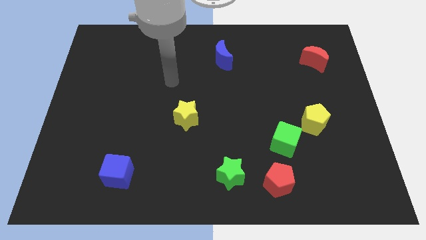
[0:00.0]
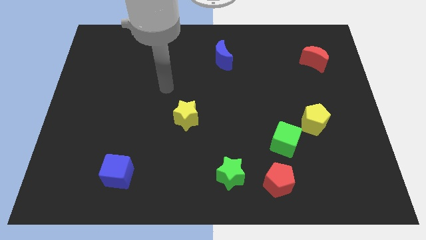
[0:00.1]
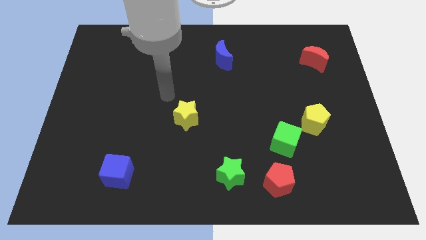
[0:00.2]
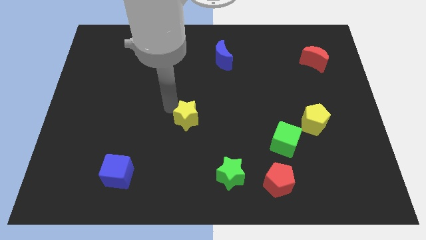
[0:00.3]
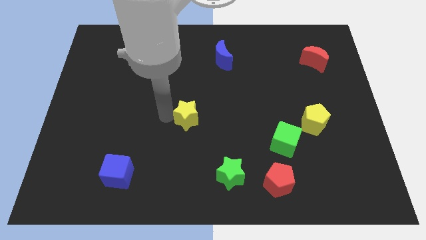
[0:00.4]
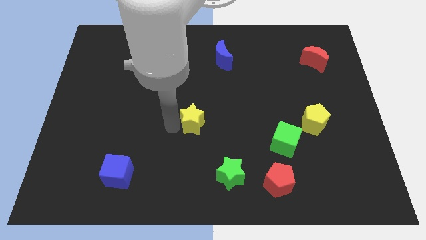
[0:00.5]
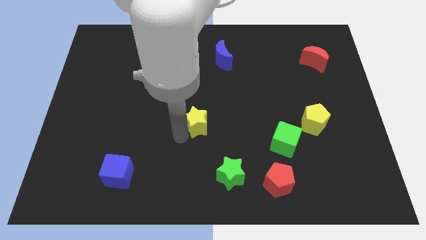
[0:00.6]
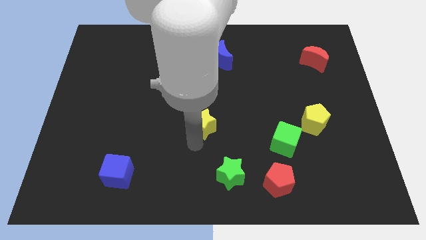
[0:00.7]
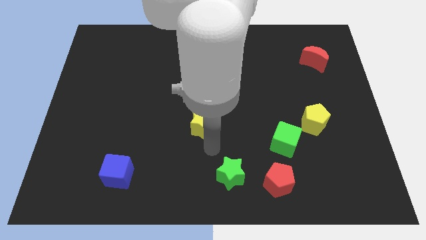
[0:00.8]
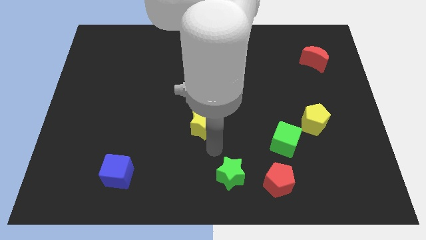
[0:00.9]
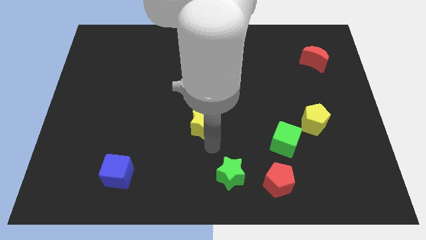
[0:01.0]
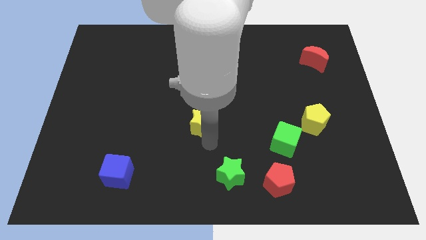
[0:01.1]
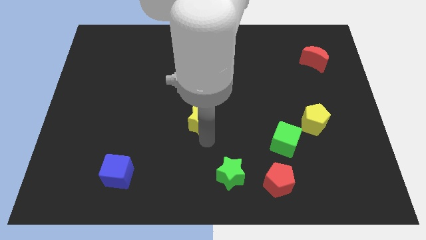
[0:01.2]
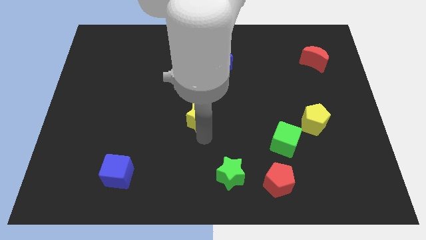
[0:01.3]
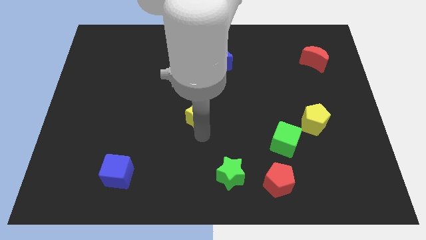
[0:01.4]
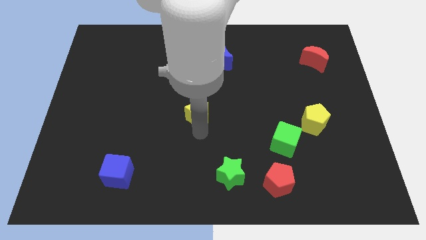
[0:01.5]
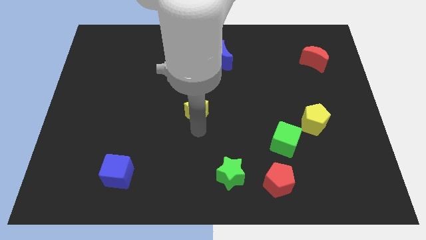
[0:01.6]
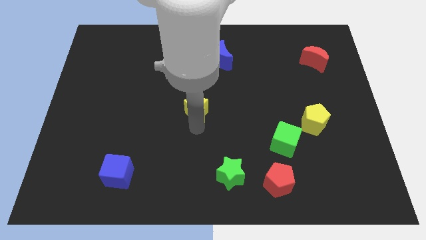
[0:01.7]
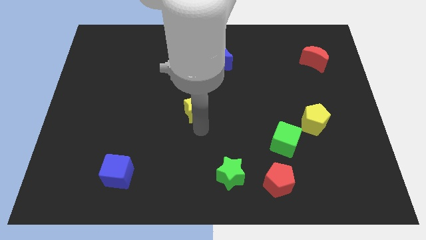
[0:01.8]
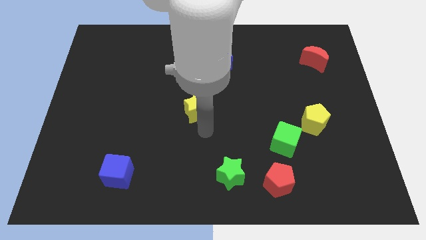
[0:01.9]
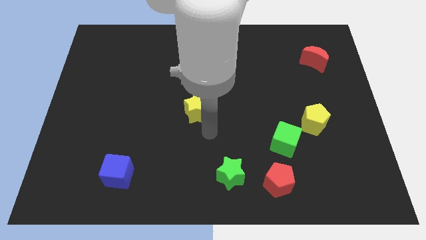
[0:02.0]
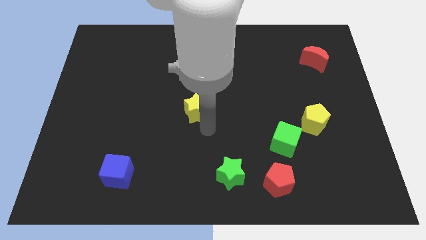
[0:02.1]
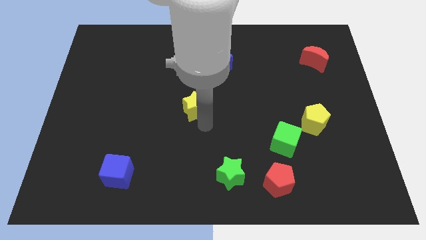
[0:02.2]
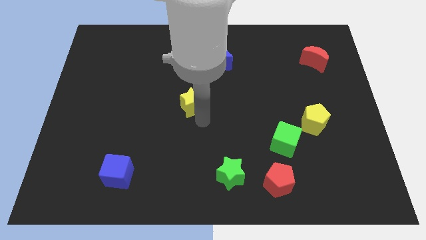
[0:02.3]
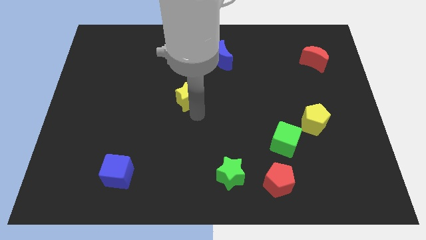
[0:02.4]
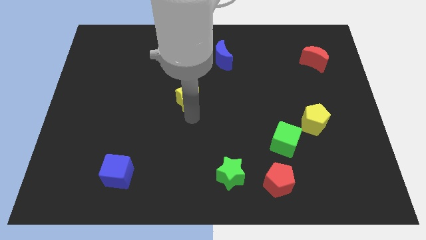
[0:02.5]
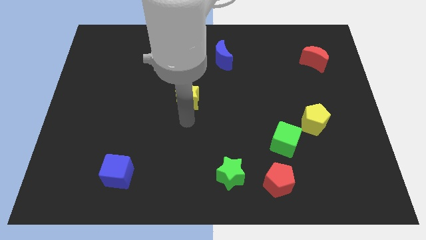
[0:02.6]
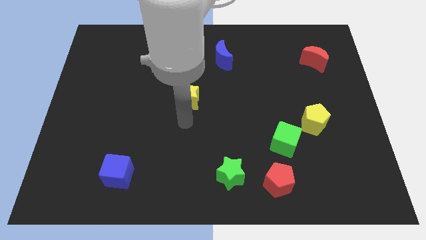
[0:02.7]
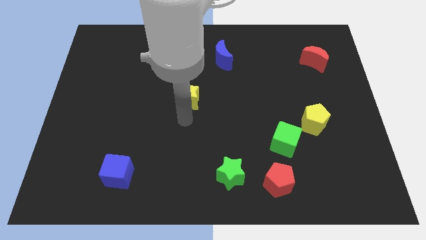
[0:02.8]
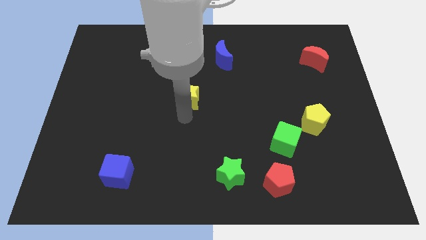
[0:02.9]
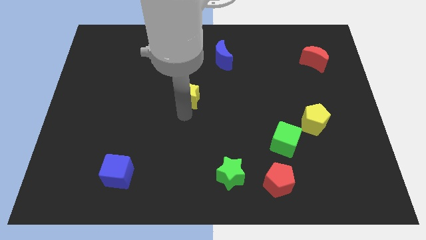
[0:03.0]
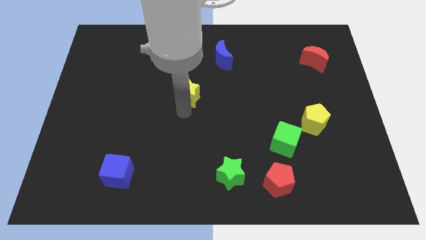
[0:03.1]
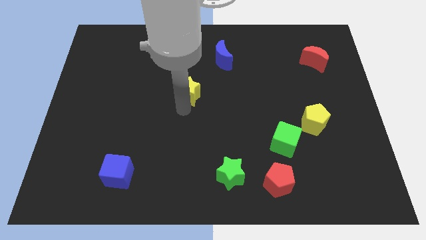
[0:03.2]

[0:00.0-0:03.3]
move the yellow star slightly upwards

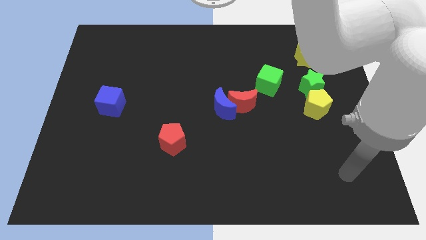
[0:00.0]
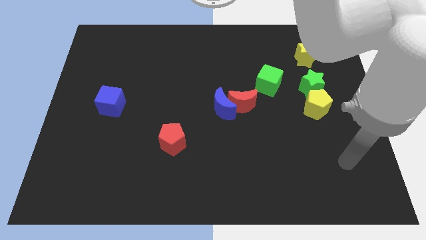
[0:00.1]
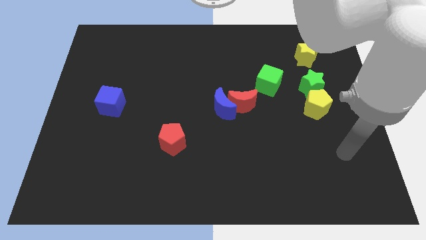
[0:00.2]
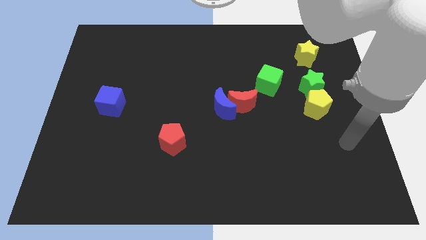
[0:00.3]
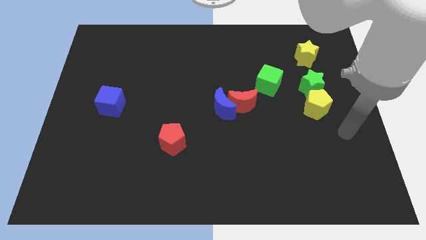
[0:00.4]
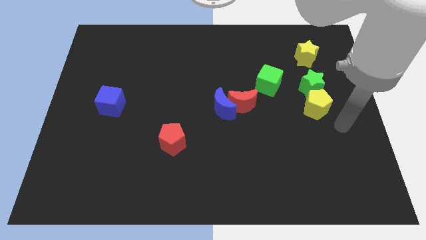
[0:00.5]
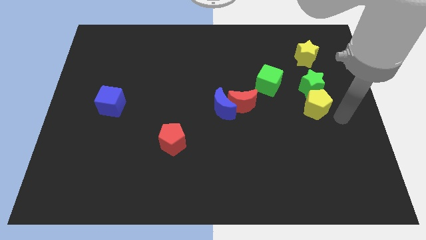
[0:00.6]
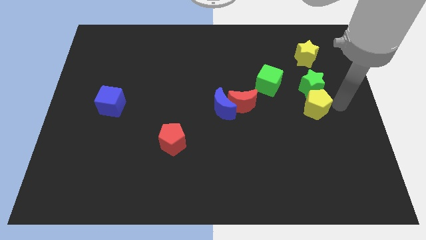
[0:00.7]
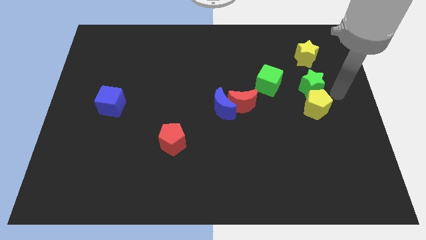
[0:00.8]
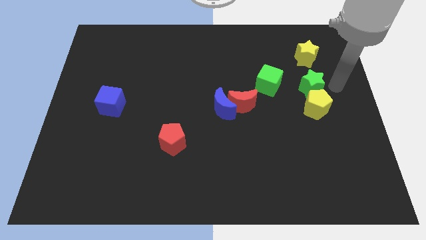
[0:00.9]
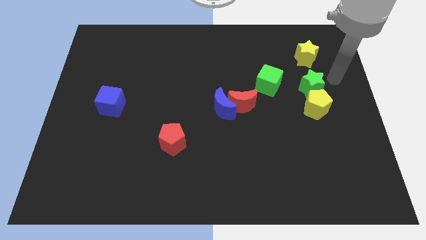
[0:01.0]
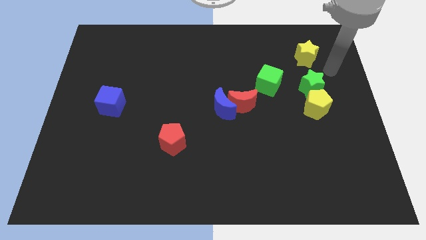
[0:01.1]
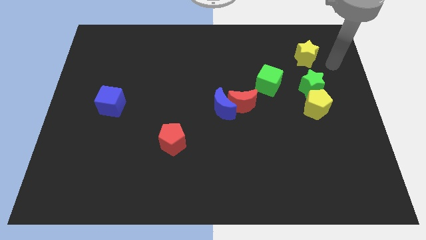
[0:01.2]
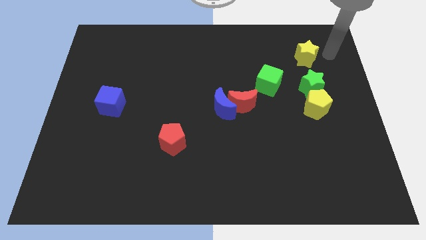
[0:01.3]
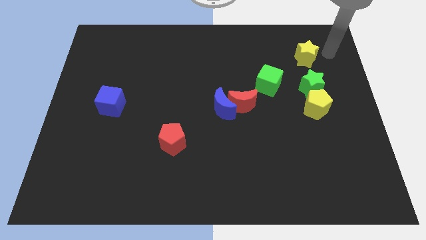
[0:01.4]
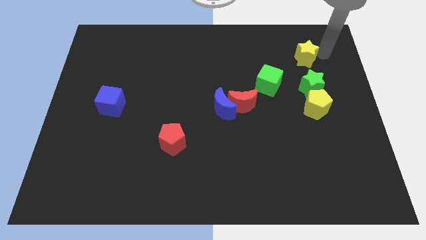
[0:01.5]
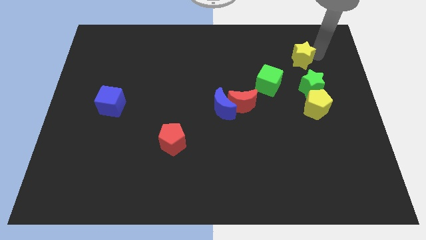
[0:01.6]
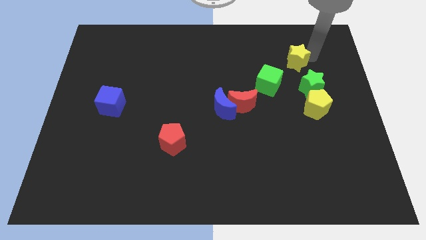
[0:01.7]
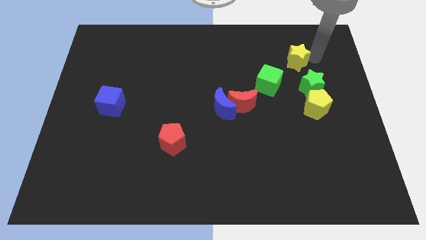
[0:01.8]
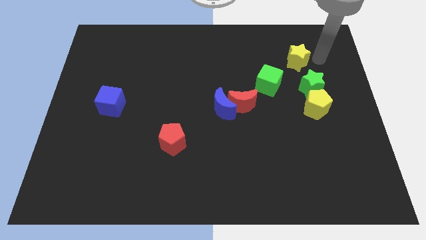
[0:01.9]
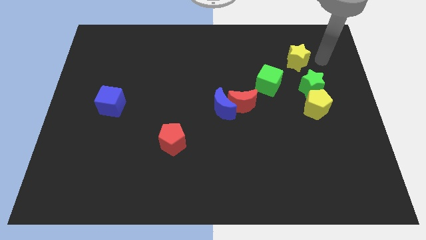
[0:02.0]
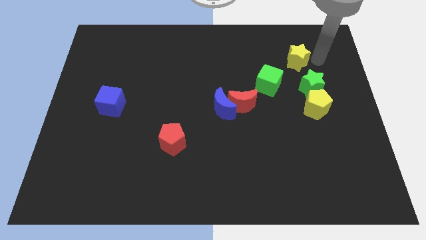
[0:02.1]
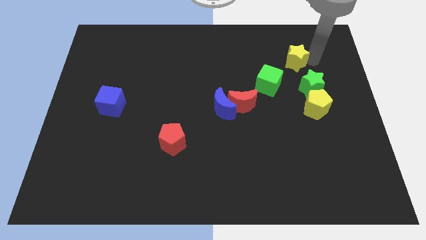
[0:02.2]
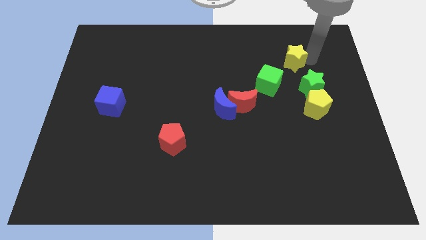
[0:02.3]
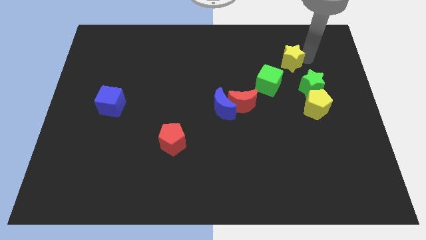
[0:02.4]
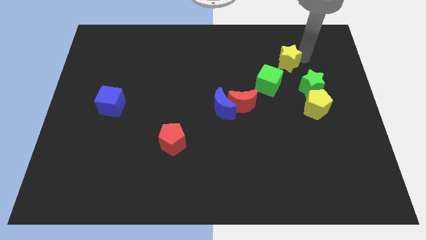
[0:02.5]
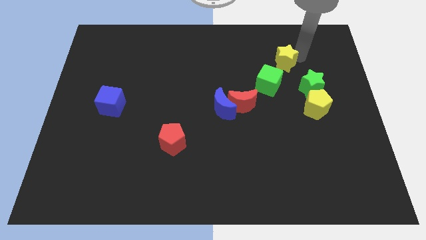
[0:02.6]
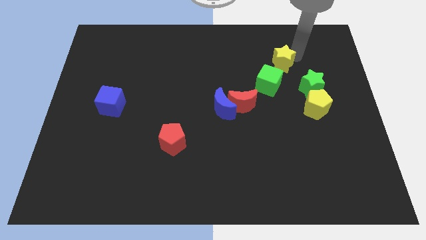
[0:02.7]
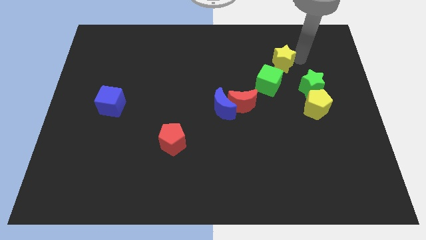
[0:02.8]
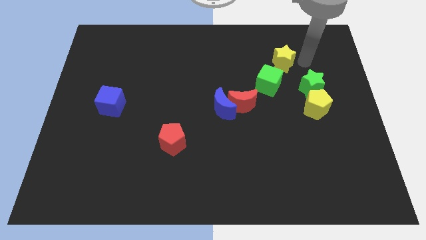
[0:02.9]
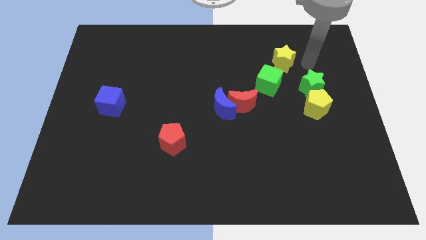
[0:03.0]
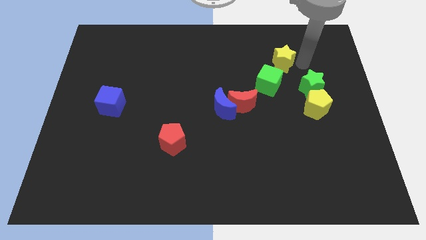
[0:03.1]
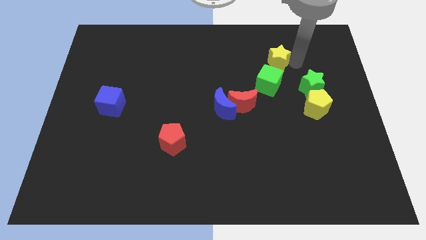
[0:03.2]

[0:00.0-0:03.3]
push the yellow star somewhat to the left

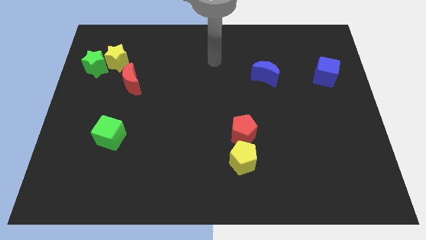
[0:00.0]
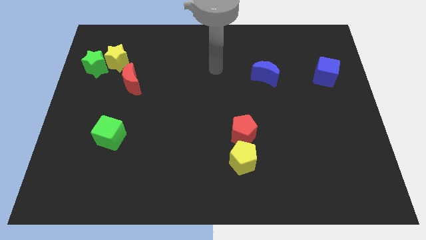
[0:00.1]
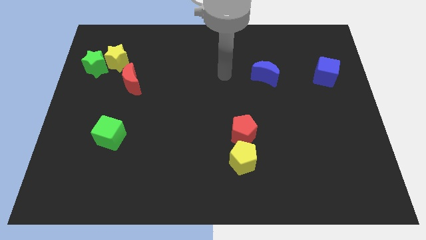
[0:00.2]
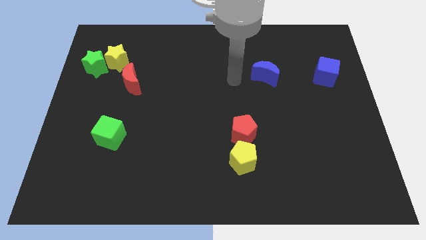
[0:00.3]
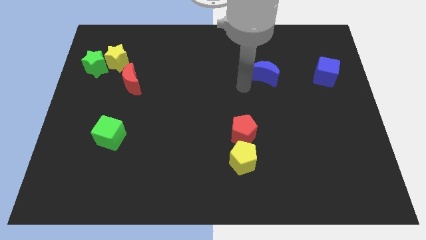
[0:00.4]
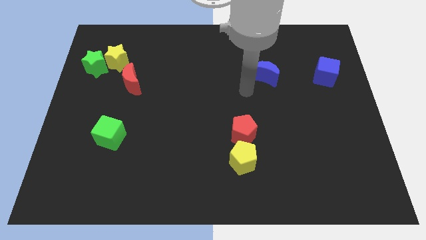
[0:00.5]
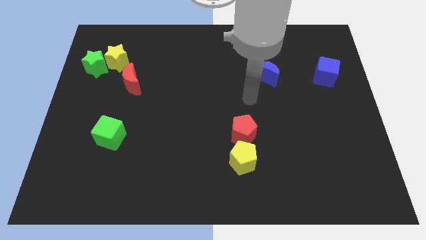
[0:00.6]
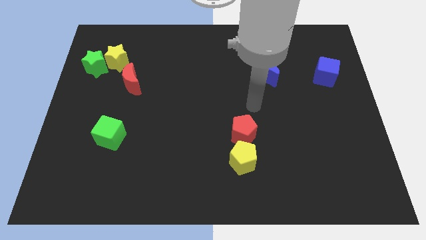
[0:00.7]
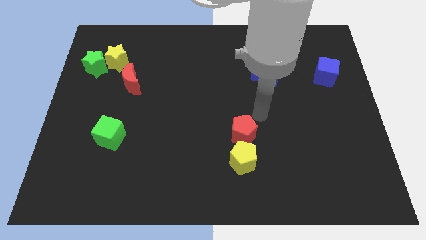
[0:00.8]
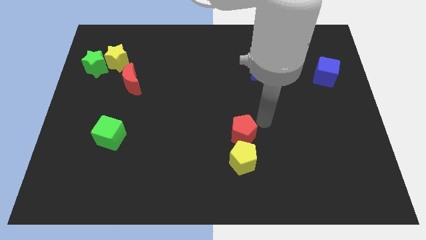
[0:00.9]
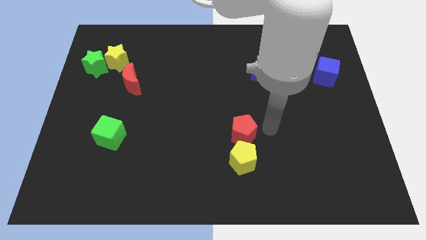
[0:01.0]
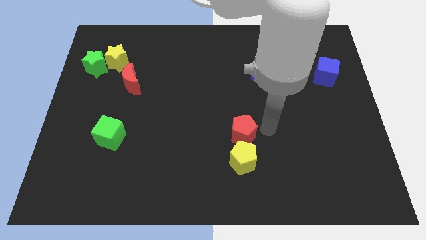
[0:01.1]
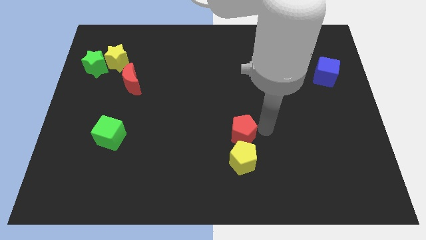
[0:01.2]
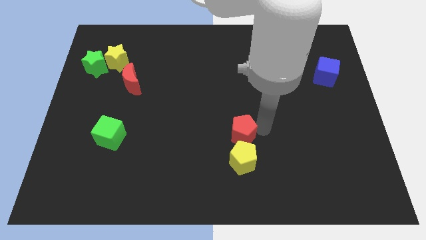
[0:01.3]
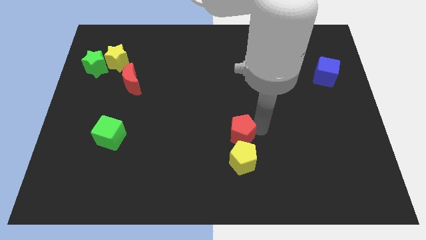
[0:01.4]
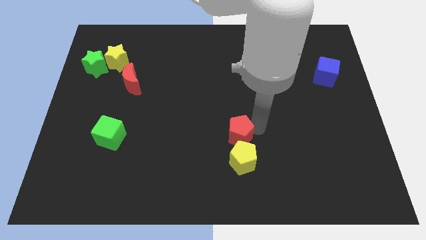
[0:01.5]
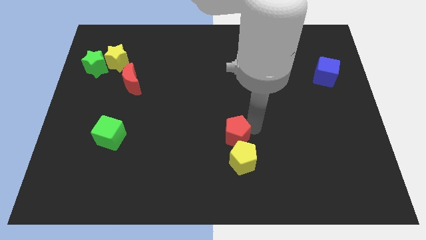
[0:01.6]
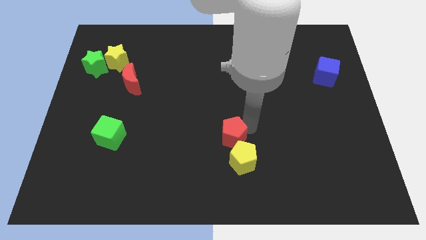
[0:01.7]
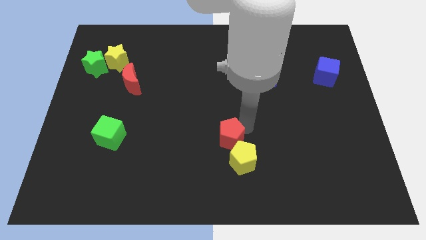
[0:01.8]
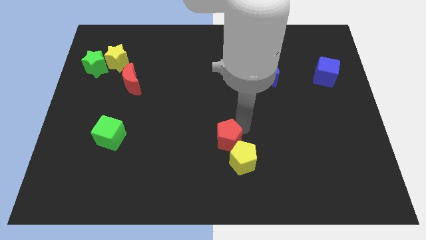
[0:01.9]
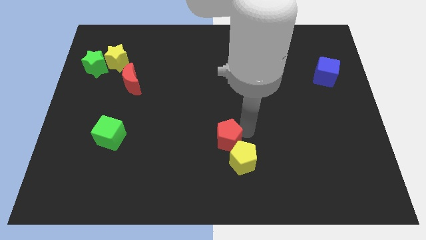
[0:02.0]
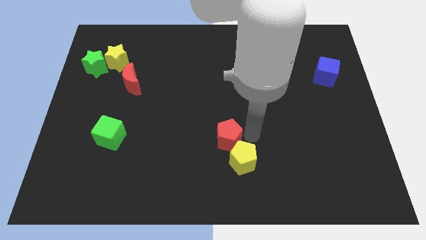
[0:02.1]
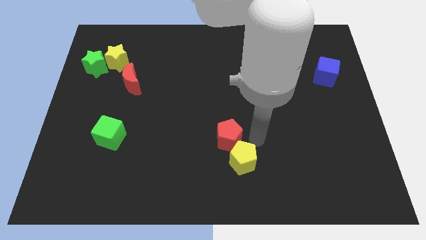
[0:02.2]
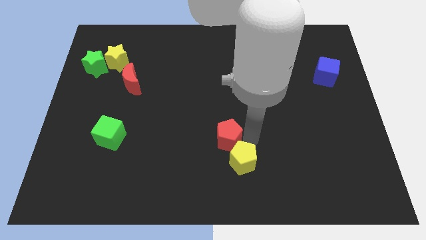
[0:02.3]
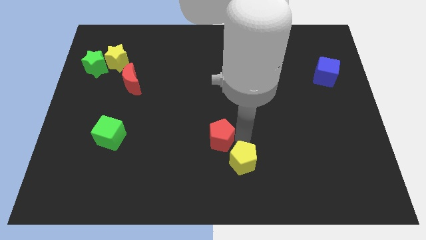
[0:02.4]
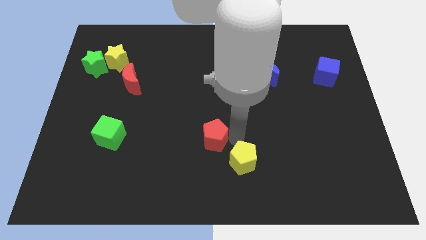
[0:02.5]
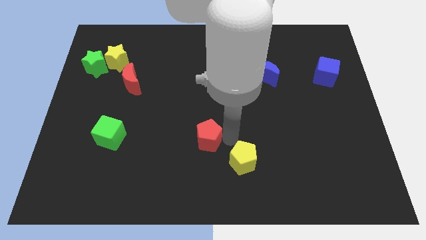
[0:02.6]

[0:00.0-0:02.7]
move the red pentagon left a little
